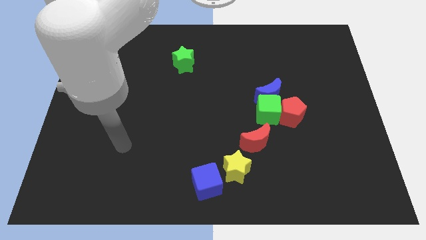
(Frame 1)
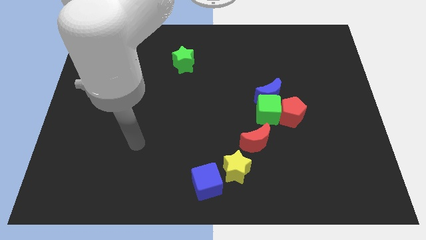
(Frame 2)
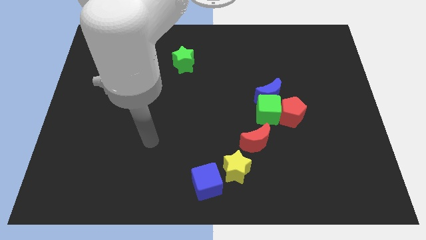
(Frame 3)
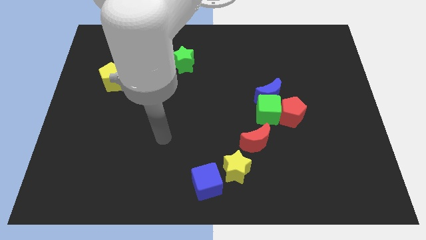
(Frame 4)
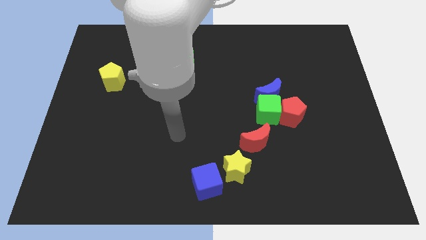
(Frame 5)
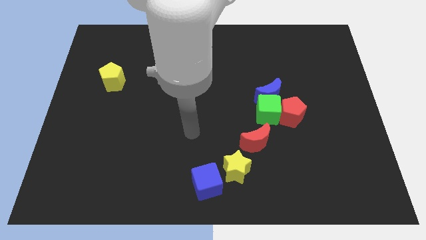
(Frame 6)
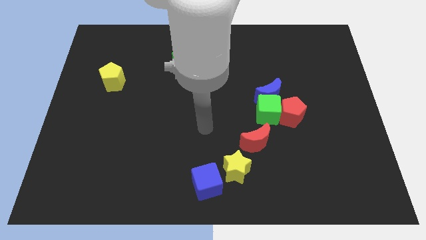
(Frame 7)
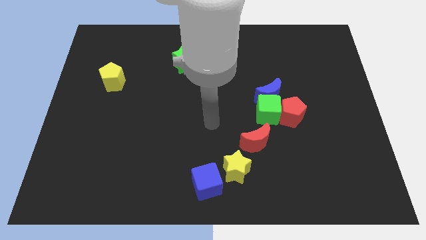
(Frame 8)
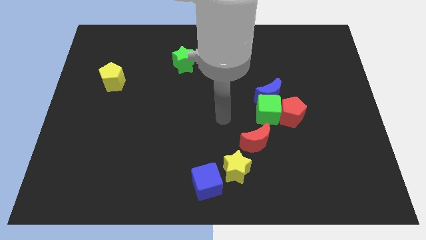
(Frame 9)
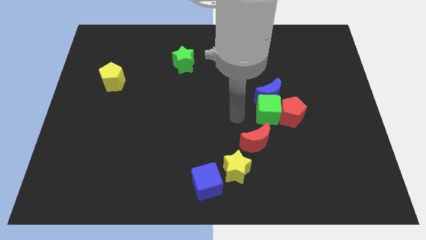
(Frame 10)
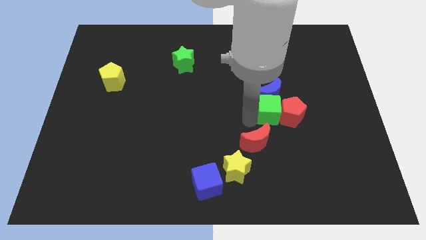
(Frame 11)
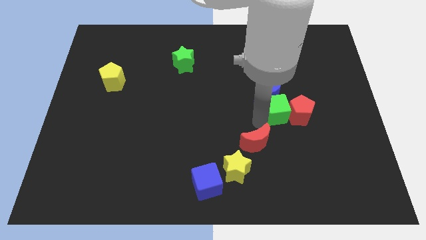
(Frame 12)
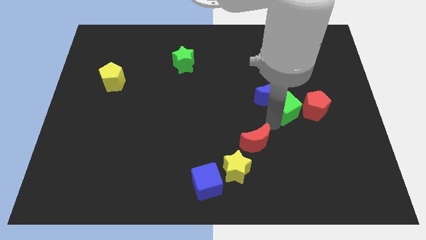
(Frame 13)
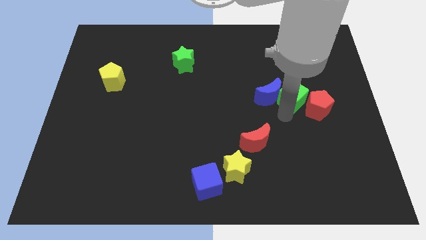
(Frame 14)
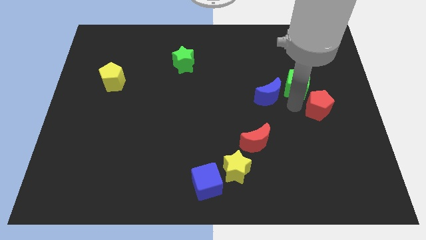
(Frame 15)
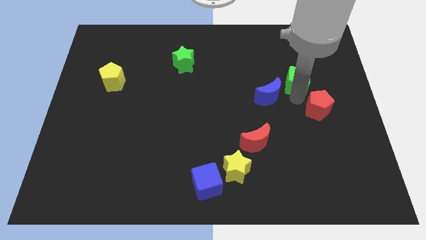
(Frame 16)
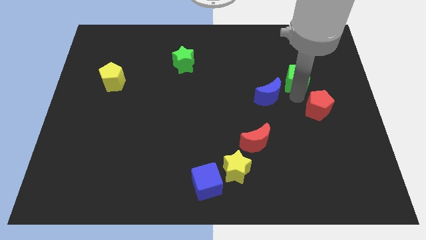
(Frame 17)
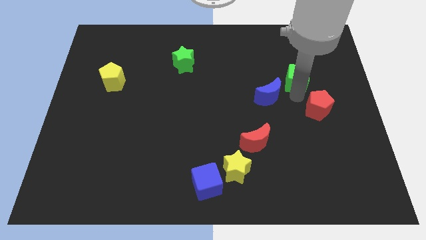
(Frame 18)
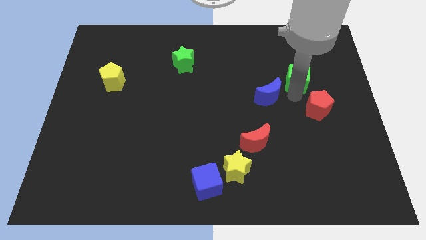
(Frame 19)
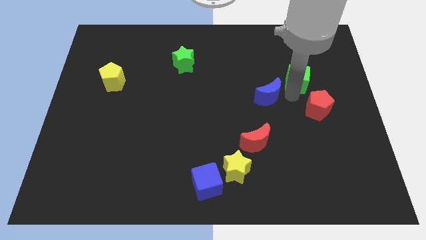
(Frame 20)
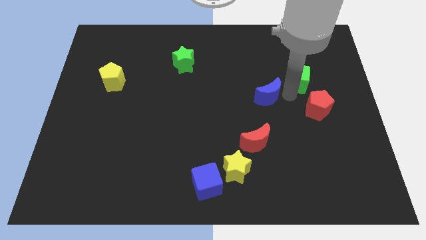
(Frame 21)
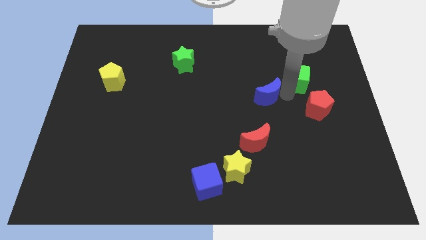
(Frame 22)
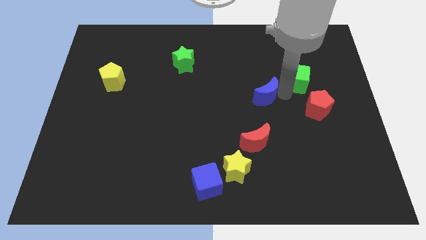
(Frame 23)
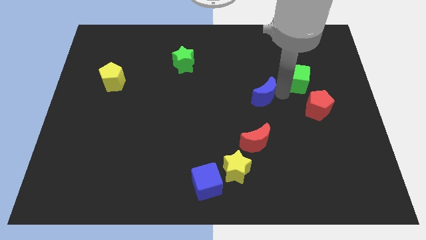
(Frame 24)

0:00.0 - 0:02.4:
move the blue moon away from the green cube and red pentagon

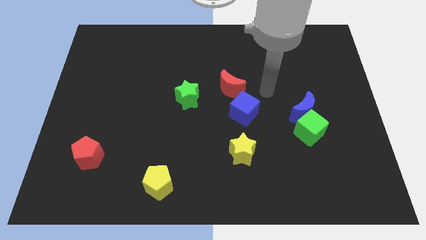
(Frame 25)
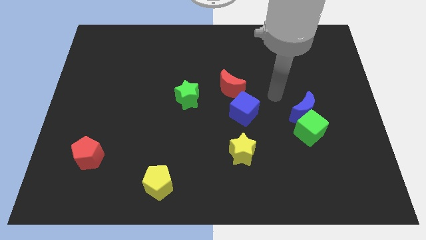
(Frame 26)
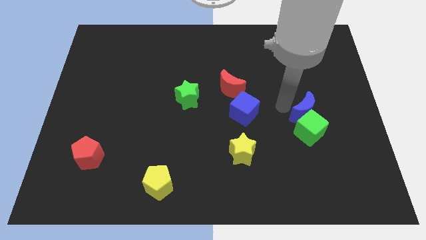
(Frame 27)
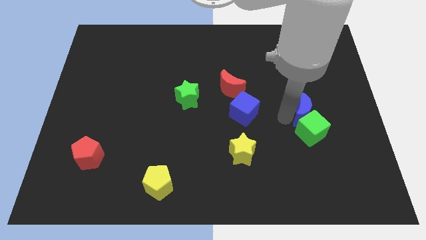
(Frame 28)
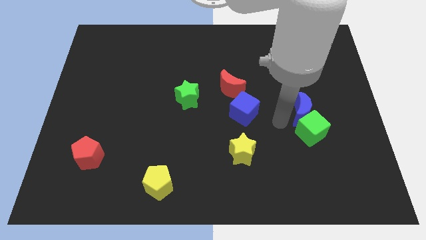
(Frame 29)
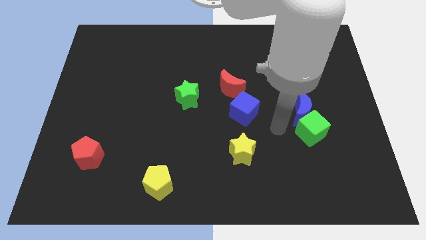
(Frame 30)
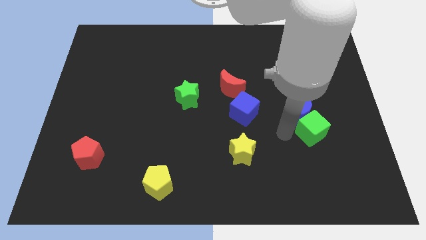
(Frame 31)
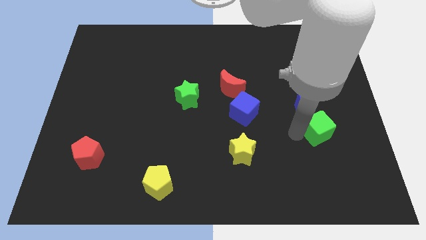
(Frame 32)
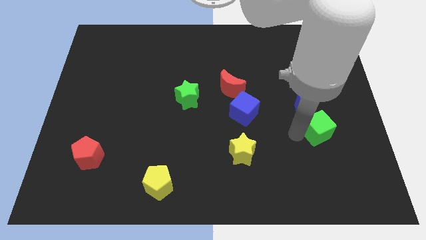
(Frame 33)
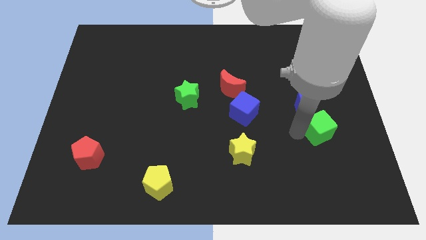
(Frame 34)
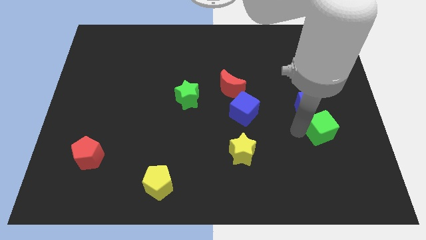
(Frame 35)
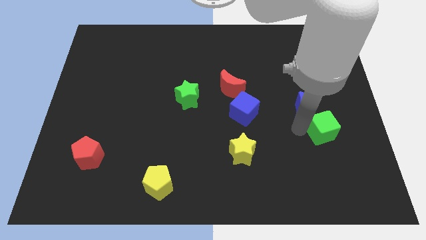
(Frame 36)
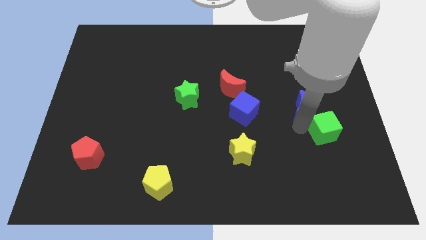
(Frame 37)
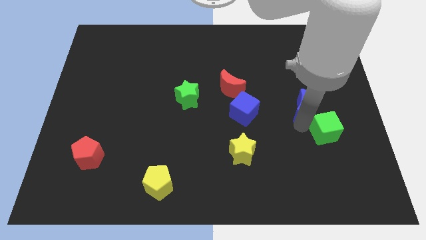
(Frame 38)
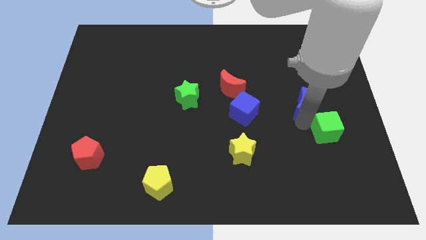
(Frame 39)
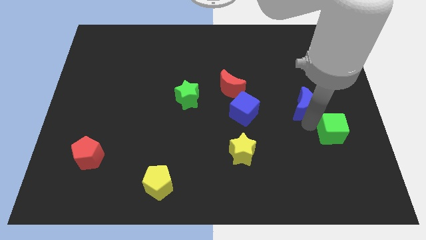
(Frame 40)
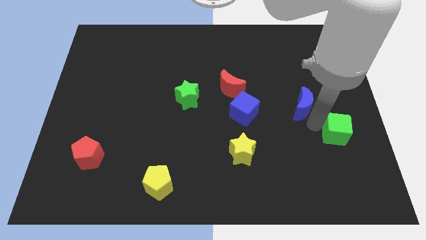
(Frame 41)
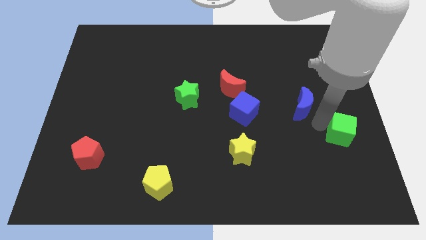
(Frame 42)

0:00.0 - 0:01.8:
pull the blue moon apart from the green cube

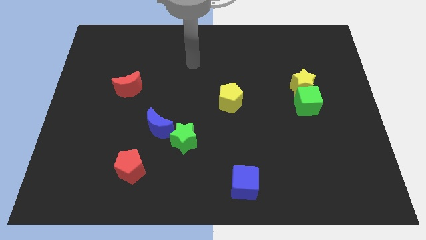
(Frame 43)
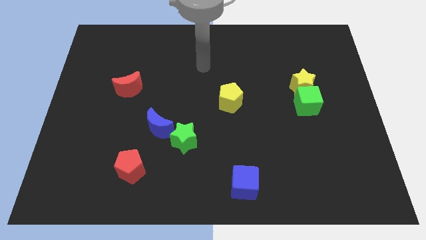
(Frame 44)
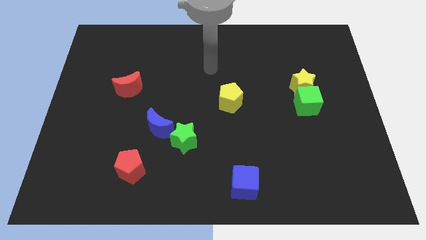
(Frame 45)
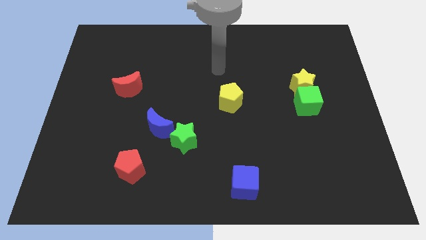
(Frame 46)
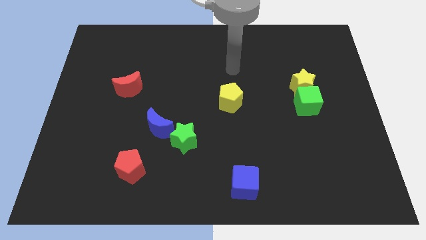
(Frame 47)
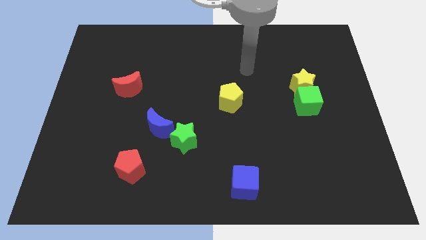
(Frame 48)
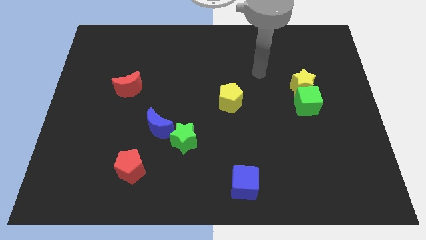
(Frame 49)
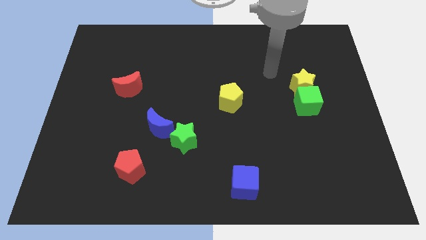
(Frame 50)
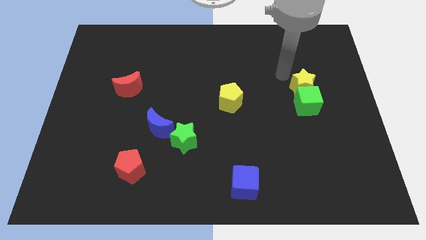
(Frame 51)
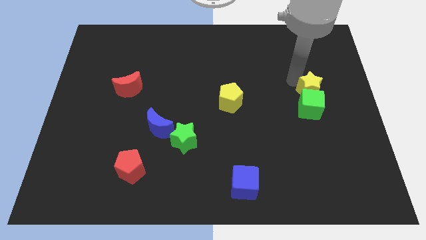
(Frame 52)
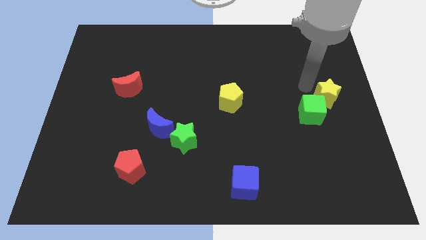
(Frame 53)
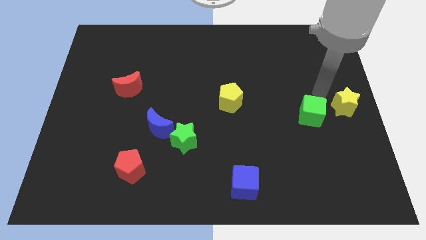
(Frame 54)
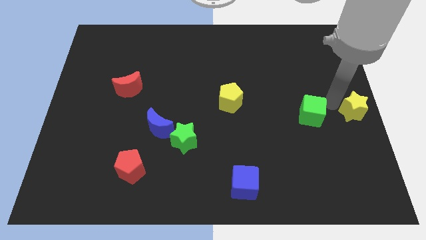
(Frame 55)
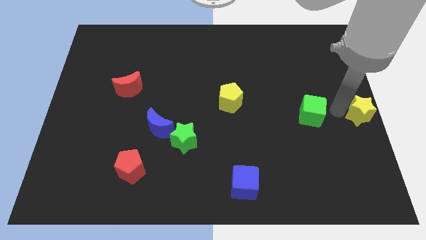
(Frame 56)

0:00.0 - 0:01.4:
move the green cube away from the yellow star

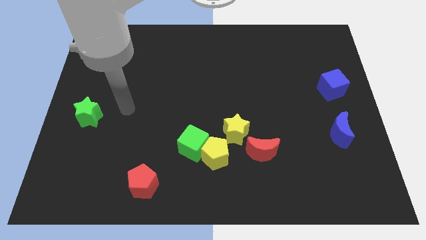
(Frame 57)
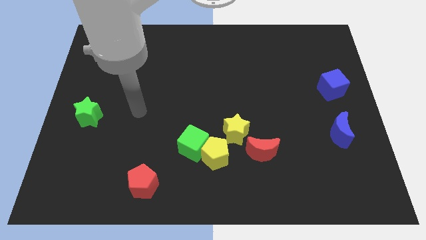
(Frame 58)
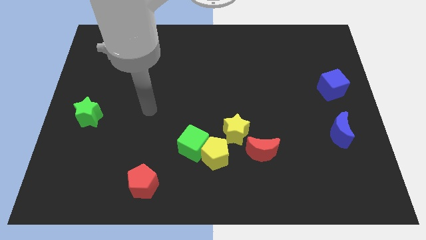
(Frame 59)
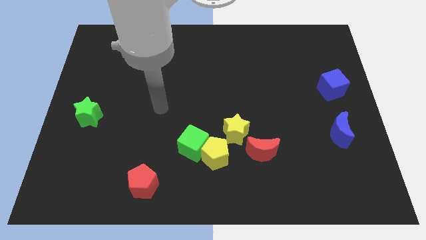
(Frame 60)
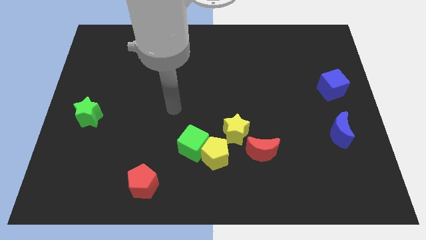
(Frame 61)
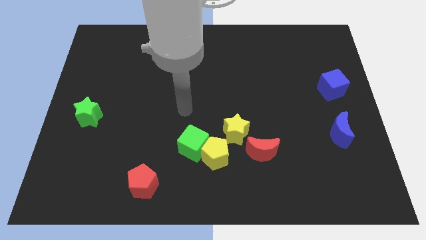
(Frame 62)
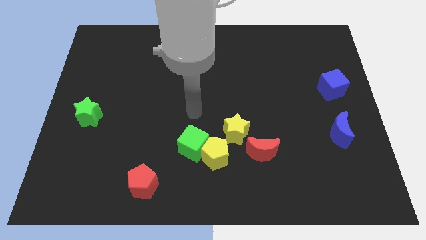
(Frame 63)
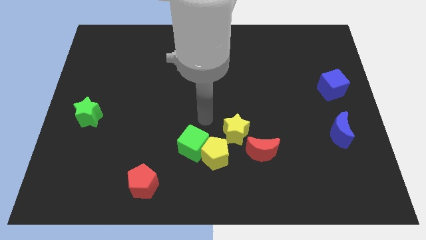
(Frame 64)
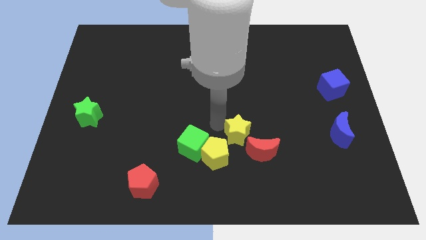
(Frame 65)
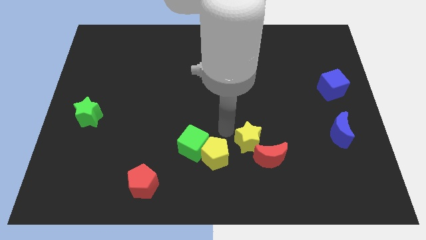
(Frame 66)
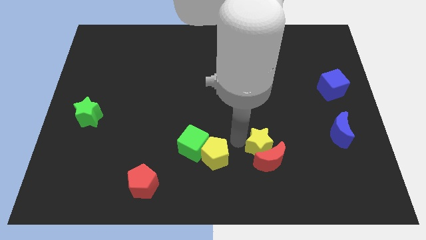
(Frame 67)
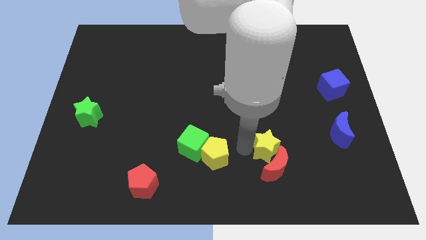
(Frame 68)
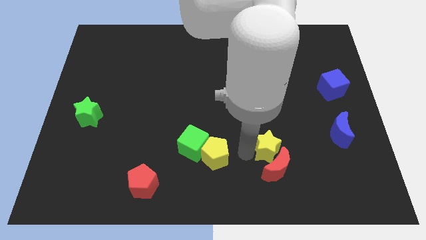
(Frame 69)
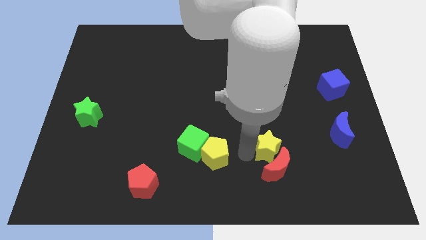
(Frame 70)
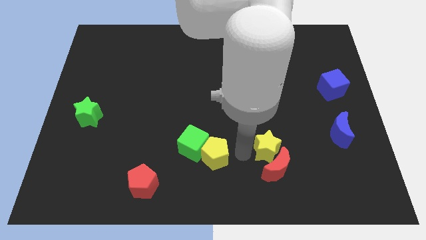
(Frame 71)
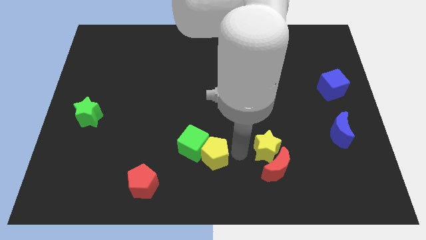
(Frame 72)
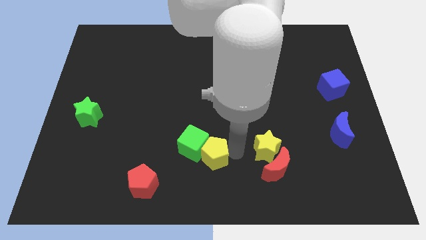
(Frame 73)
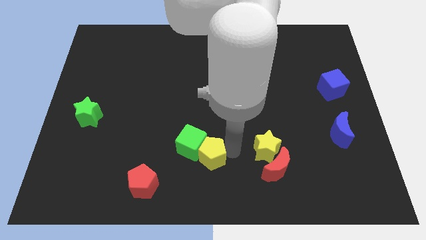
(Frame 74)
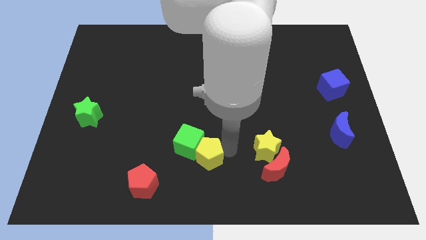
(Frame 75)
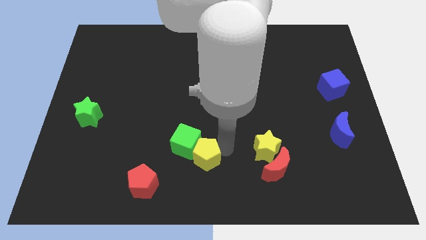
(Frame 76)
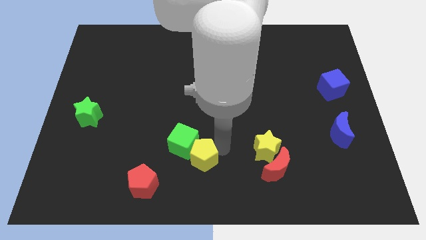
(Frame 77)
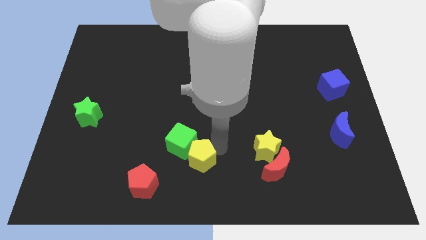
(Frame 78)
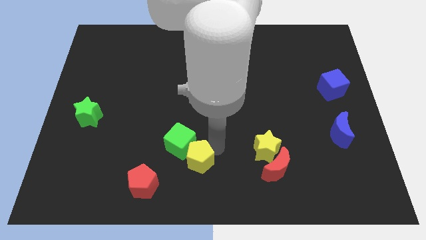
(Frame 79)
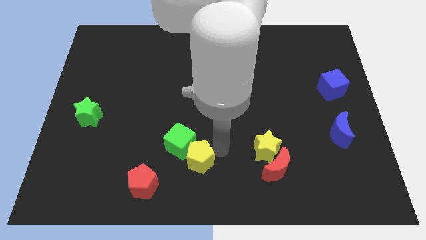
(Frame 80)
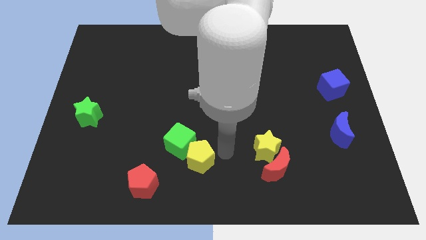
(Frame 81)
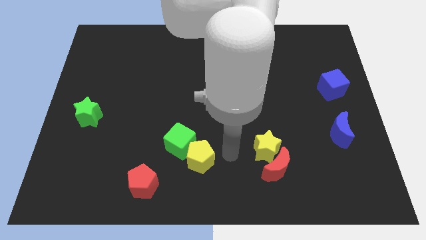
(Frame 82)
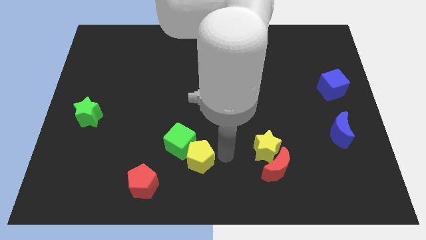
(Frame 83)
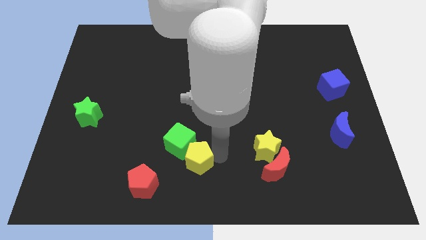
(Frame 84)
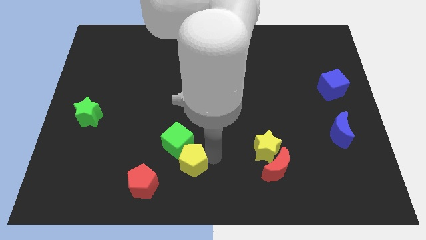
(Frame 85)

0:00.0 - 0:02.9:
pull the yellow pentagon apart from the green cube, yellow star, and red moon

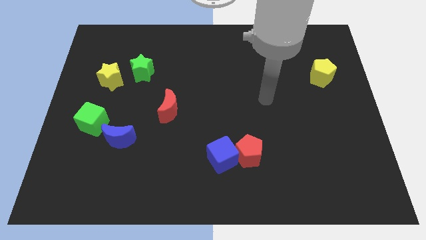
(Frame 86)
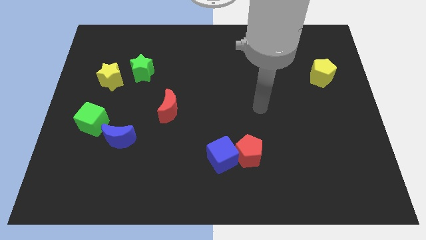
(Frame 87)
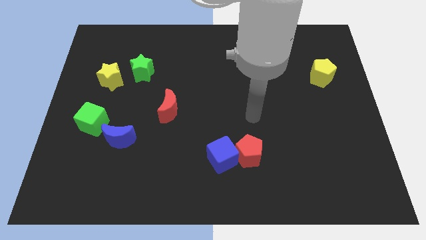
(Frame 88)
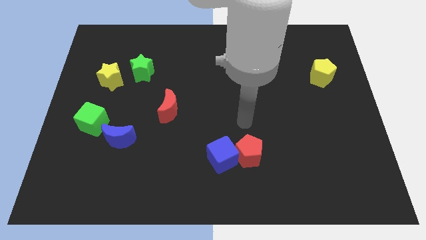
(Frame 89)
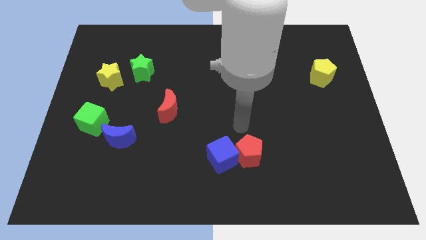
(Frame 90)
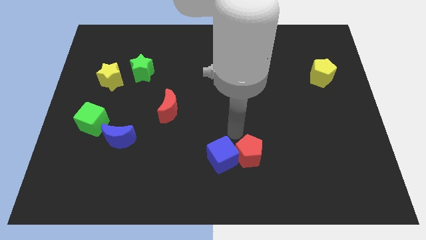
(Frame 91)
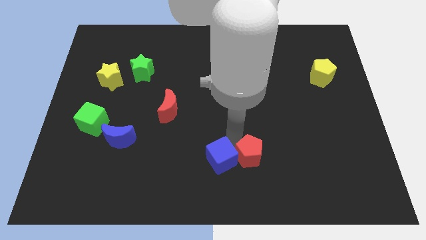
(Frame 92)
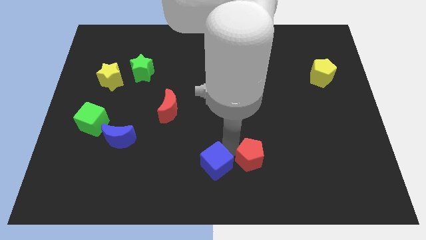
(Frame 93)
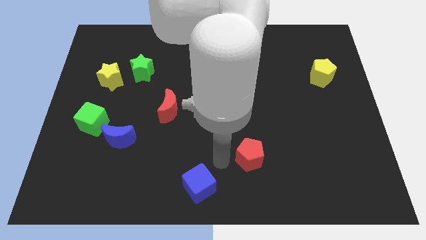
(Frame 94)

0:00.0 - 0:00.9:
move the red pentagon away from the blue cube
